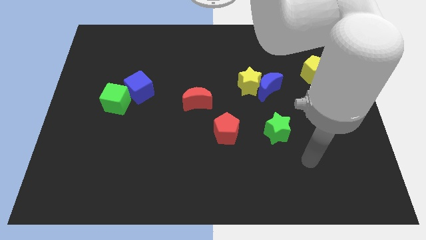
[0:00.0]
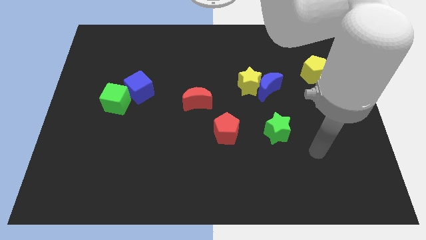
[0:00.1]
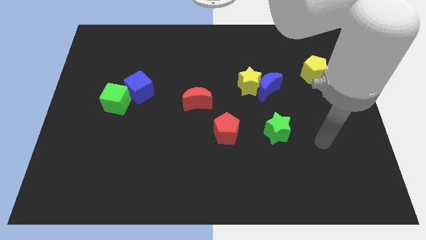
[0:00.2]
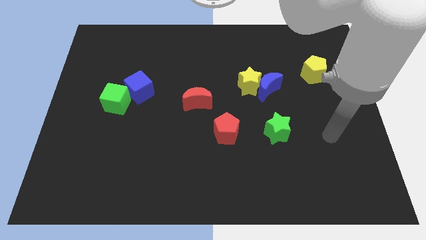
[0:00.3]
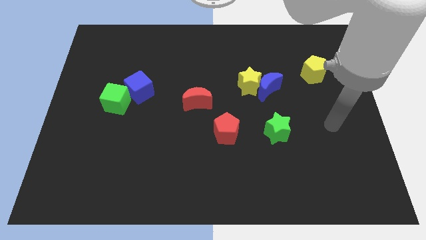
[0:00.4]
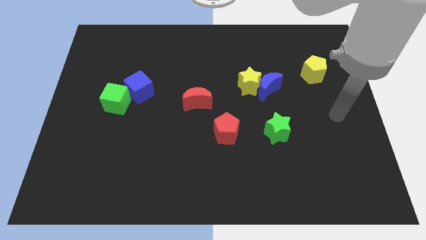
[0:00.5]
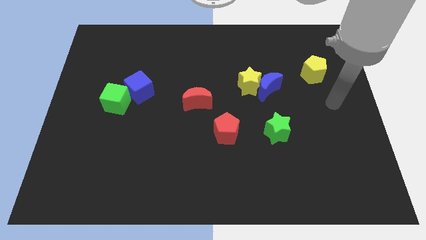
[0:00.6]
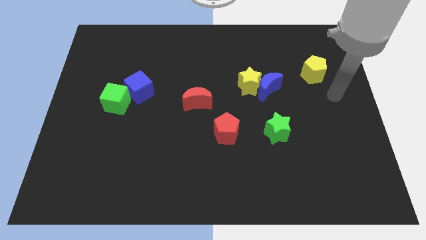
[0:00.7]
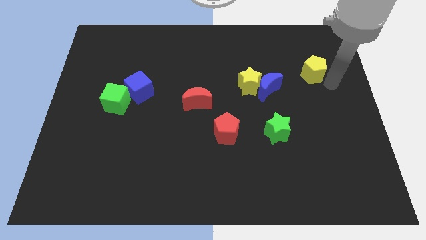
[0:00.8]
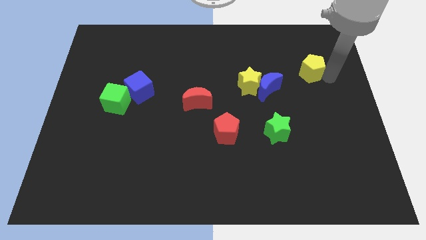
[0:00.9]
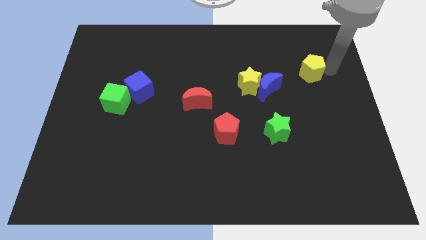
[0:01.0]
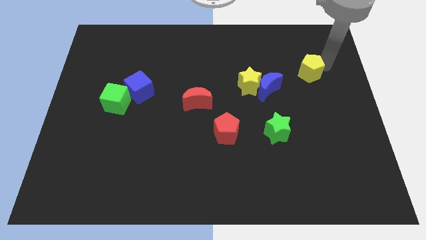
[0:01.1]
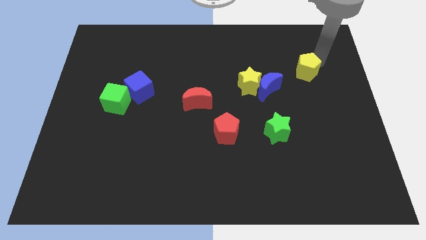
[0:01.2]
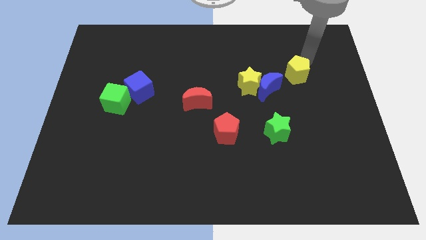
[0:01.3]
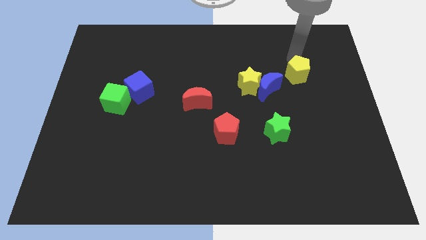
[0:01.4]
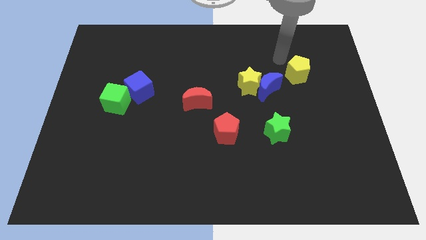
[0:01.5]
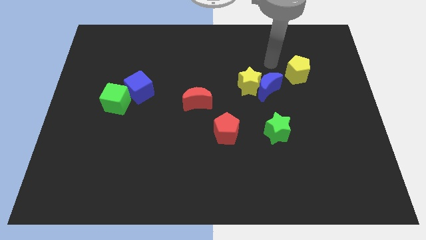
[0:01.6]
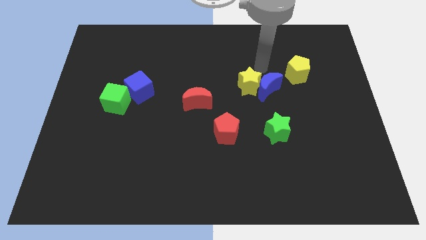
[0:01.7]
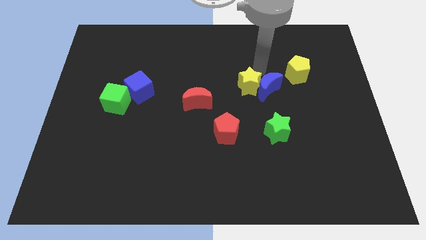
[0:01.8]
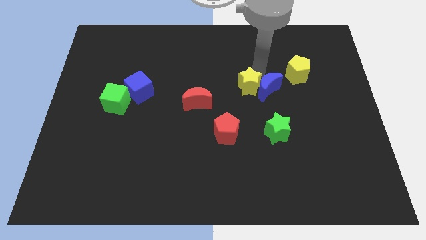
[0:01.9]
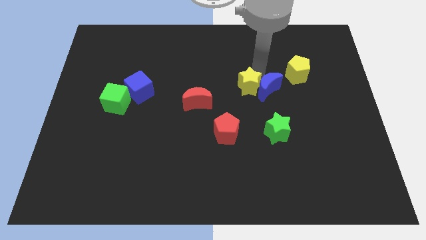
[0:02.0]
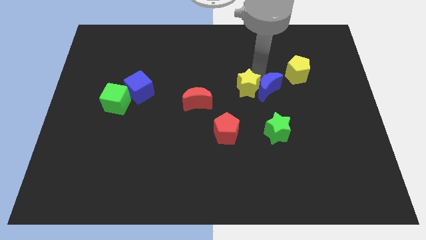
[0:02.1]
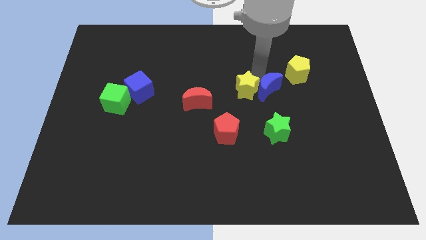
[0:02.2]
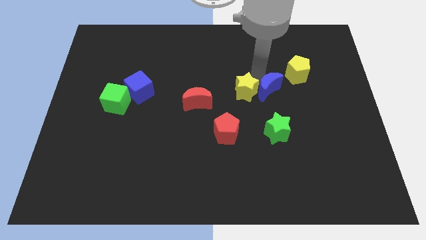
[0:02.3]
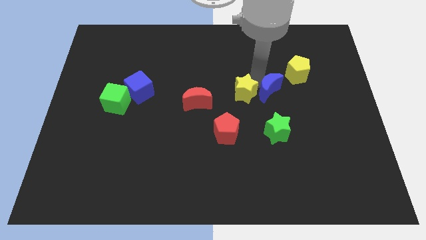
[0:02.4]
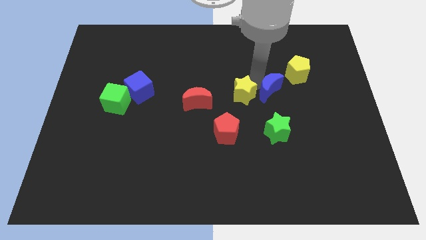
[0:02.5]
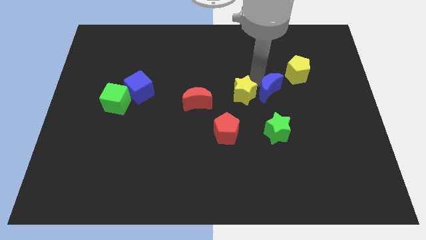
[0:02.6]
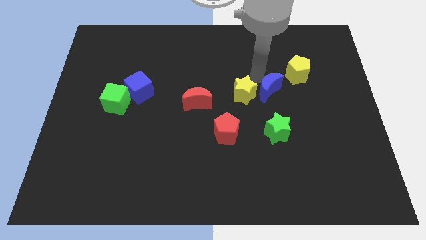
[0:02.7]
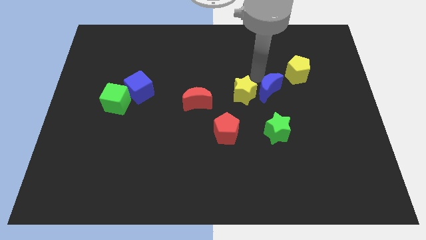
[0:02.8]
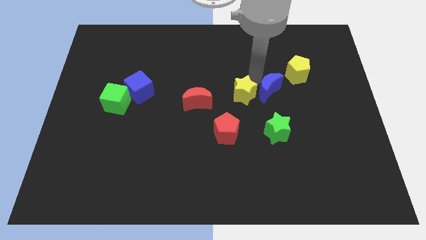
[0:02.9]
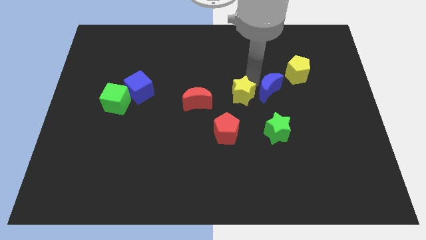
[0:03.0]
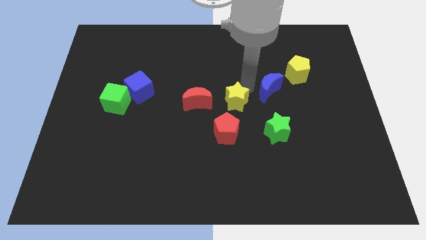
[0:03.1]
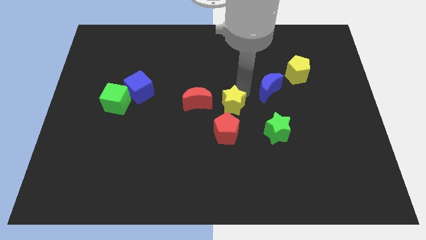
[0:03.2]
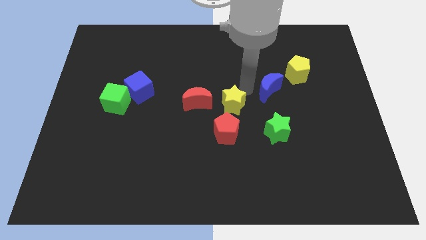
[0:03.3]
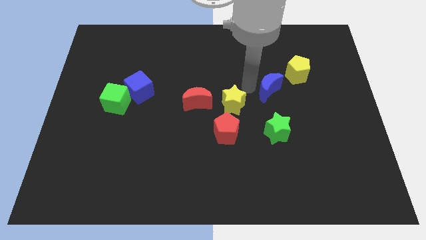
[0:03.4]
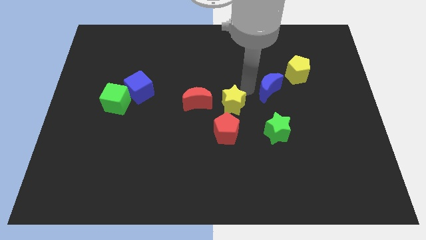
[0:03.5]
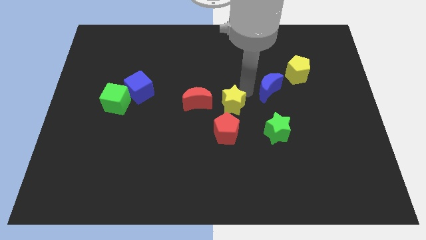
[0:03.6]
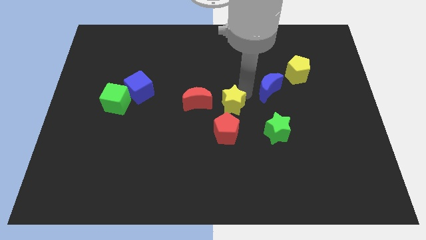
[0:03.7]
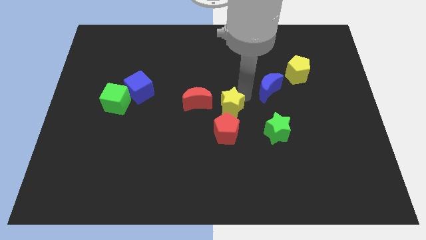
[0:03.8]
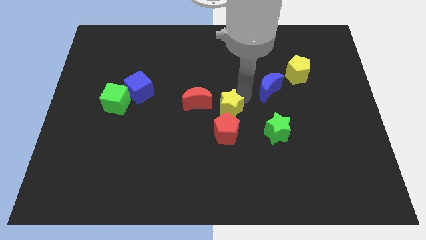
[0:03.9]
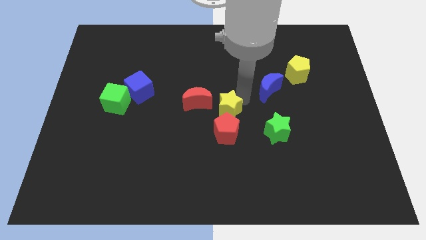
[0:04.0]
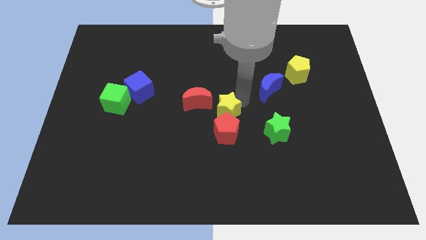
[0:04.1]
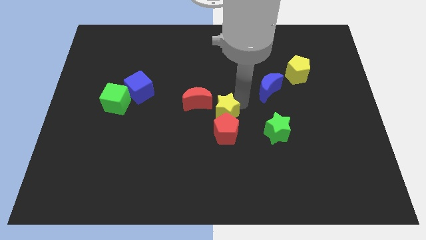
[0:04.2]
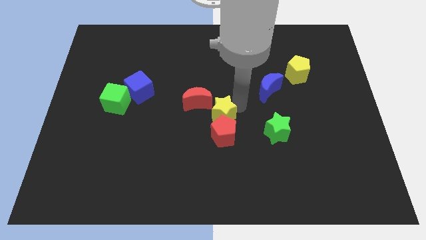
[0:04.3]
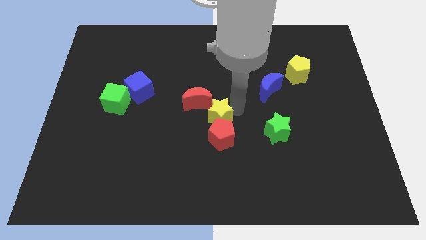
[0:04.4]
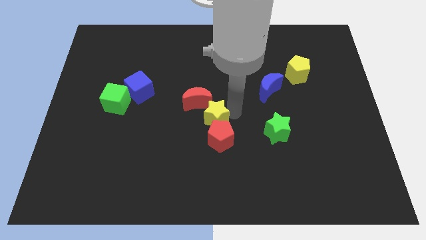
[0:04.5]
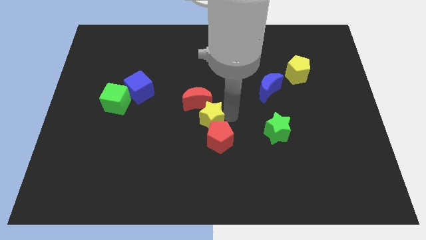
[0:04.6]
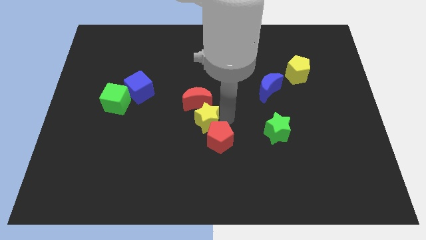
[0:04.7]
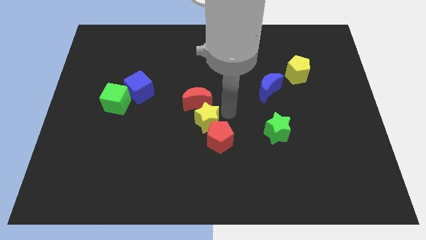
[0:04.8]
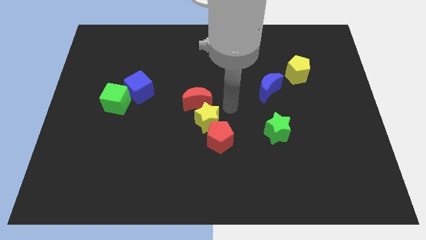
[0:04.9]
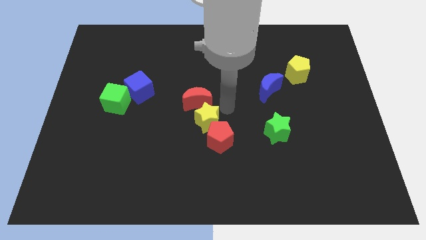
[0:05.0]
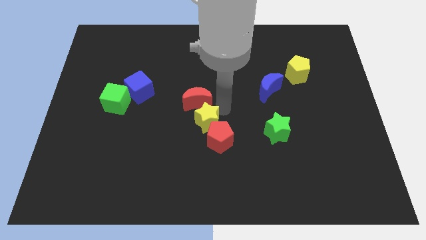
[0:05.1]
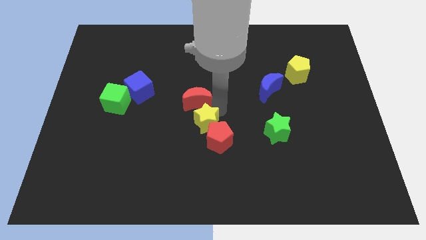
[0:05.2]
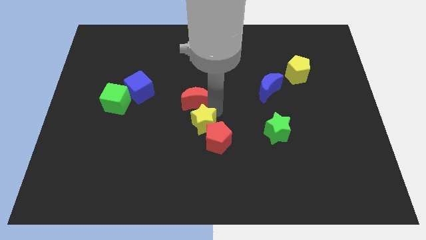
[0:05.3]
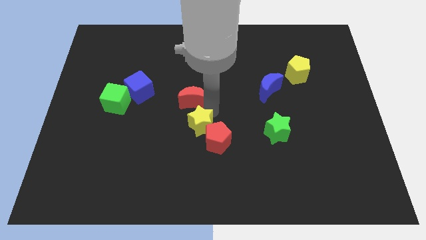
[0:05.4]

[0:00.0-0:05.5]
slide the yellow star just left of the red pentagon

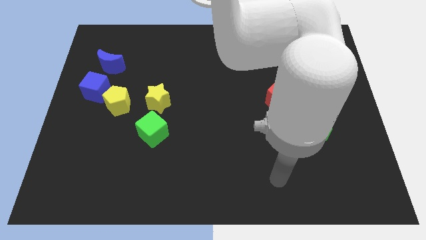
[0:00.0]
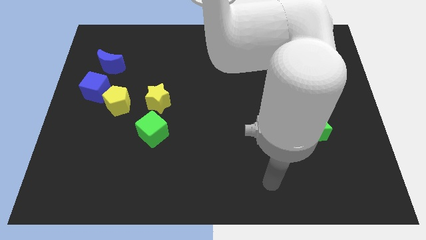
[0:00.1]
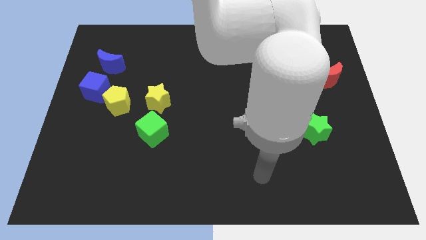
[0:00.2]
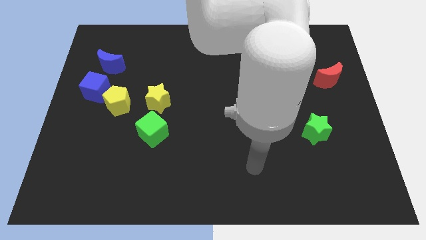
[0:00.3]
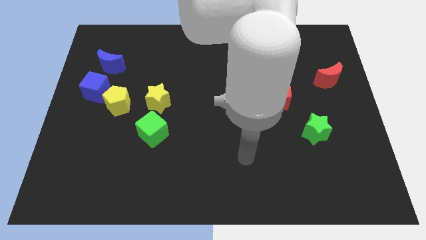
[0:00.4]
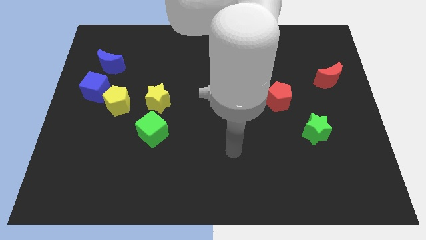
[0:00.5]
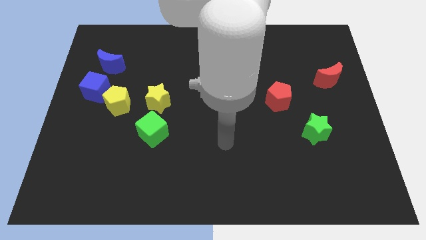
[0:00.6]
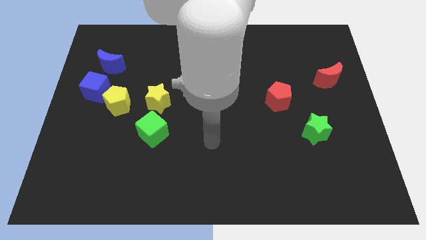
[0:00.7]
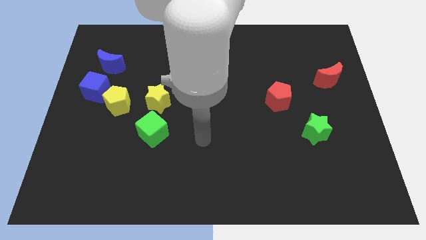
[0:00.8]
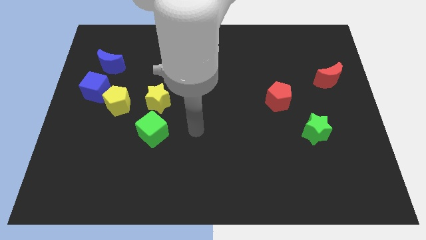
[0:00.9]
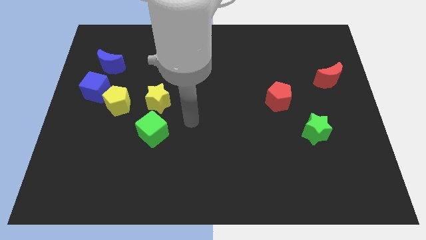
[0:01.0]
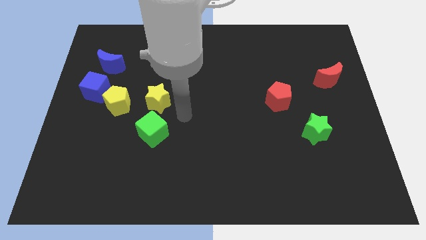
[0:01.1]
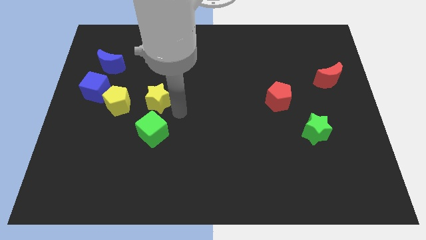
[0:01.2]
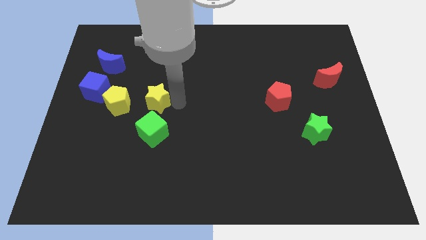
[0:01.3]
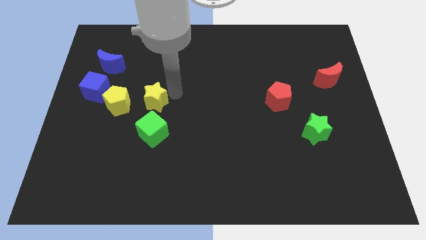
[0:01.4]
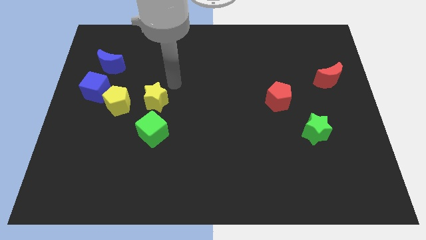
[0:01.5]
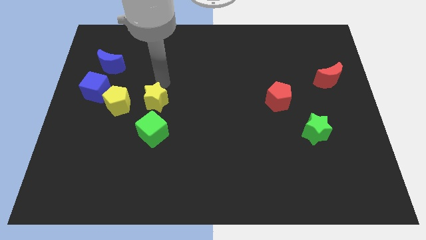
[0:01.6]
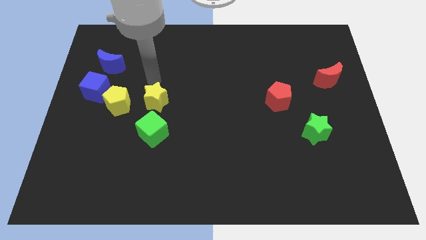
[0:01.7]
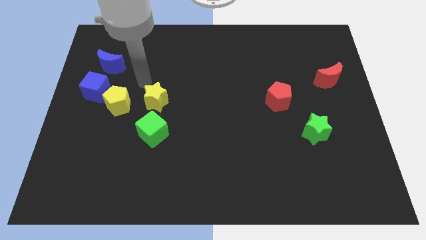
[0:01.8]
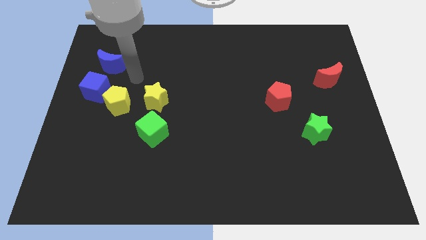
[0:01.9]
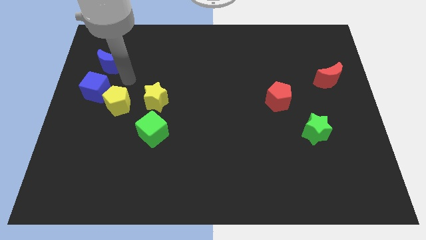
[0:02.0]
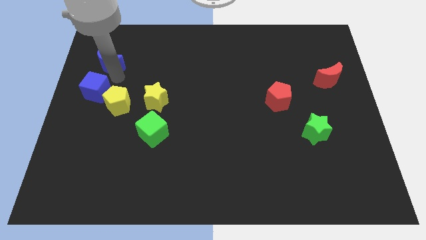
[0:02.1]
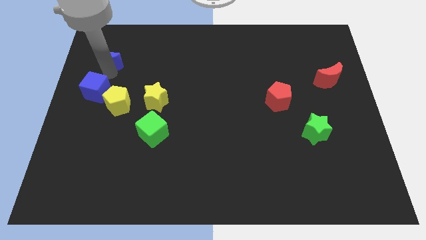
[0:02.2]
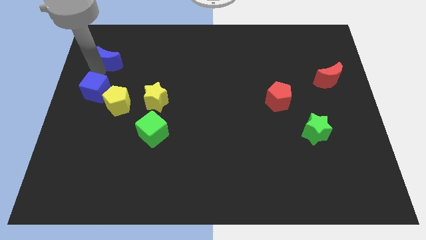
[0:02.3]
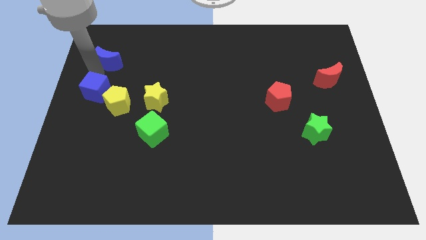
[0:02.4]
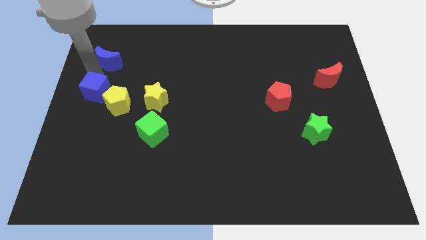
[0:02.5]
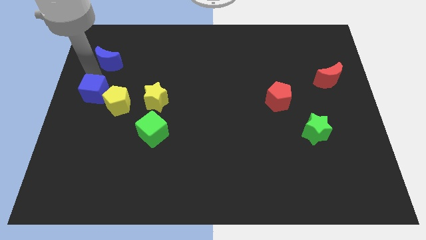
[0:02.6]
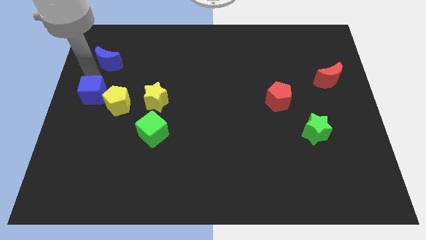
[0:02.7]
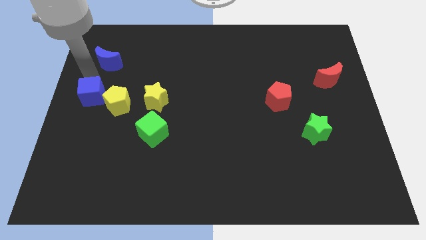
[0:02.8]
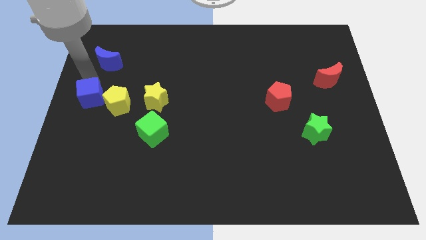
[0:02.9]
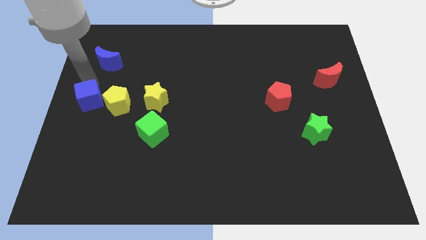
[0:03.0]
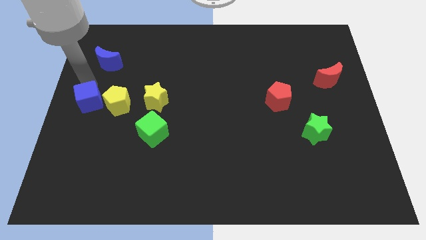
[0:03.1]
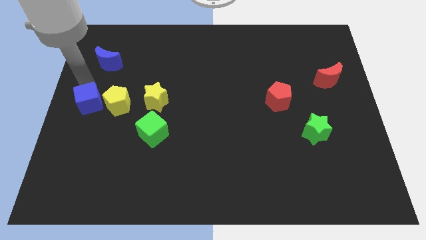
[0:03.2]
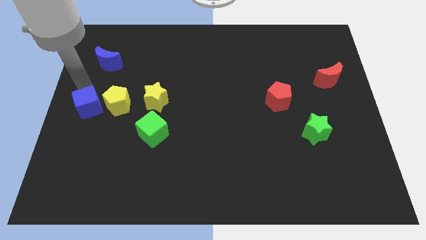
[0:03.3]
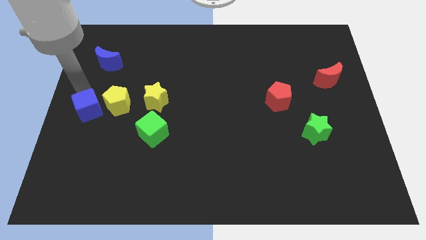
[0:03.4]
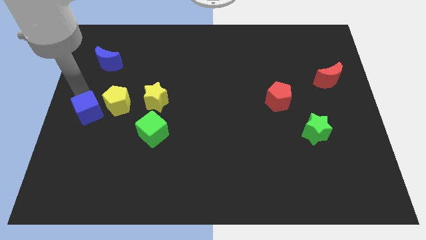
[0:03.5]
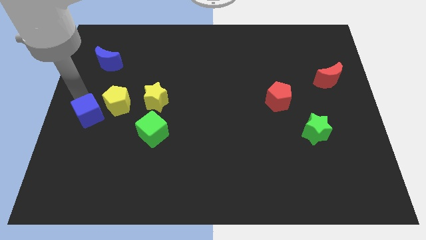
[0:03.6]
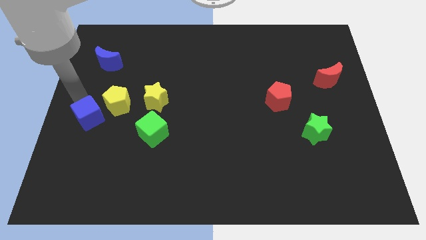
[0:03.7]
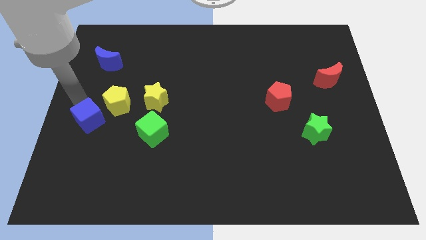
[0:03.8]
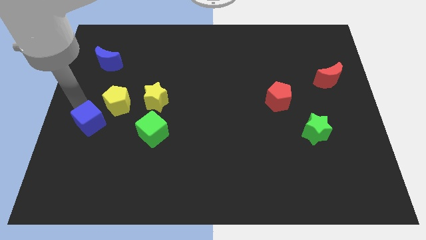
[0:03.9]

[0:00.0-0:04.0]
move the blue cube just left of the green cube
